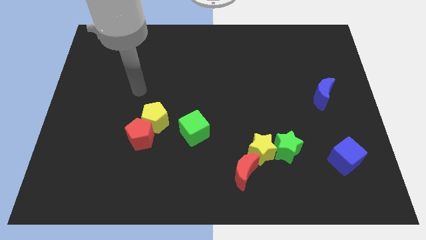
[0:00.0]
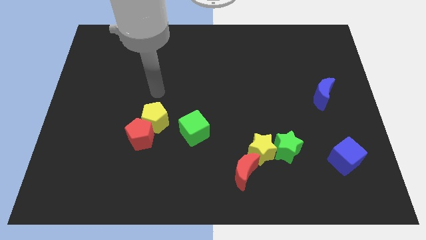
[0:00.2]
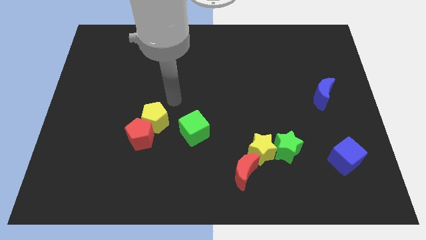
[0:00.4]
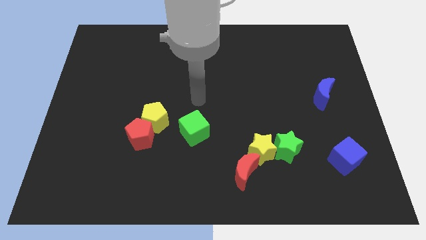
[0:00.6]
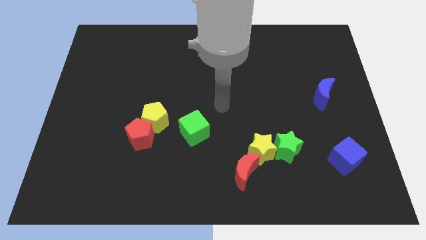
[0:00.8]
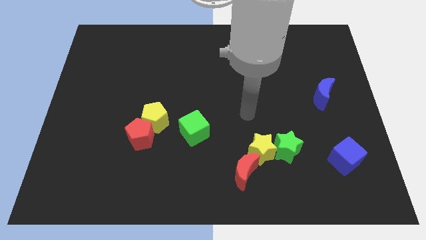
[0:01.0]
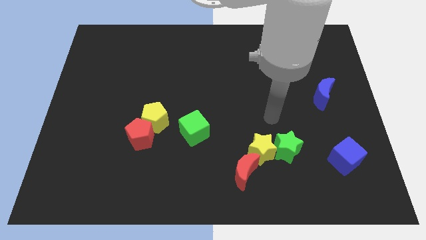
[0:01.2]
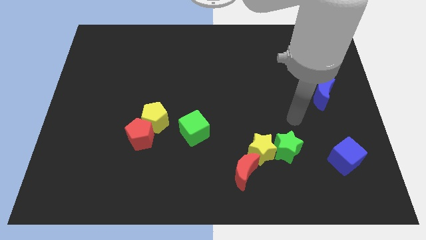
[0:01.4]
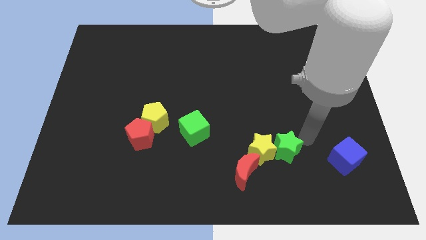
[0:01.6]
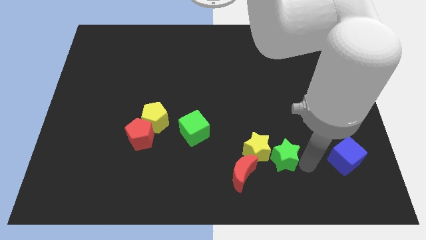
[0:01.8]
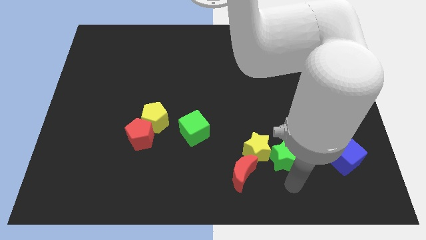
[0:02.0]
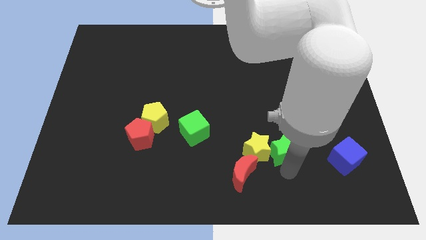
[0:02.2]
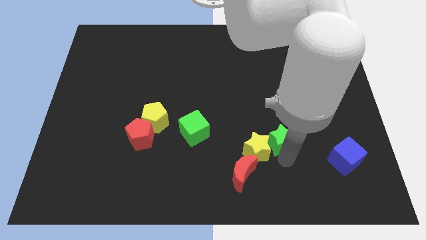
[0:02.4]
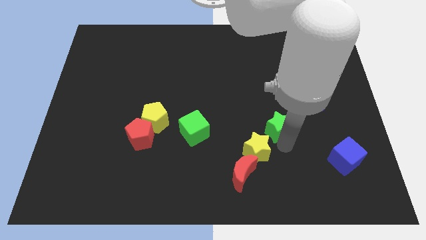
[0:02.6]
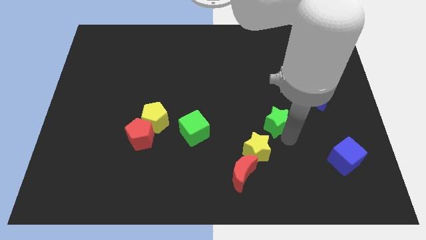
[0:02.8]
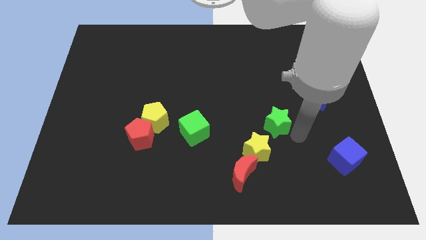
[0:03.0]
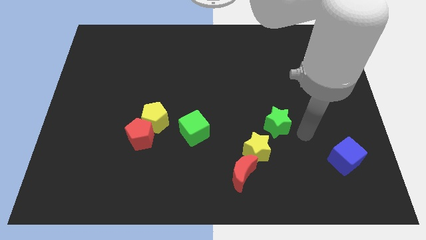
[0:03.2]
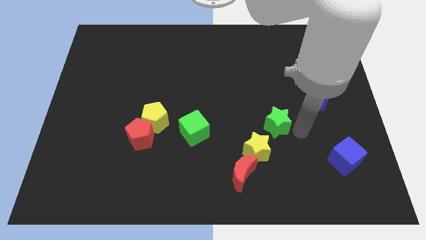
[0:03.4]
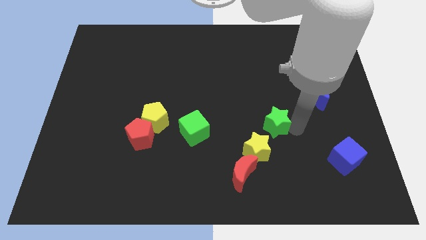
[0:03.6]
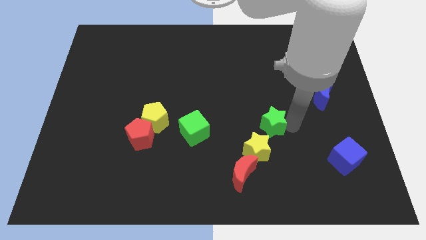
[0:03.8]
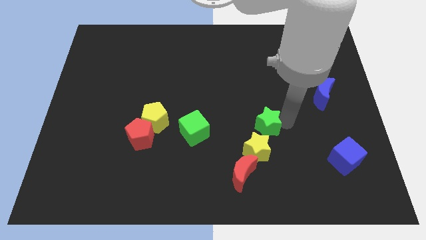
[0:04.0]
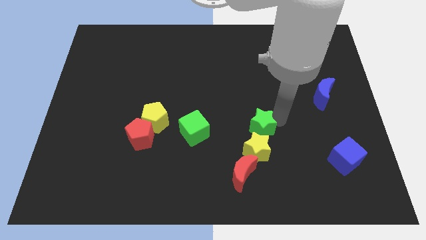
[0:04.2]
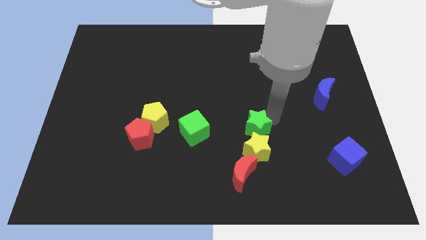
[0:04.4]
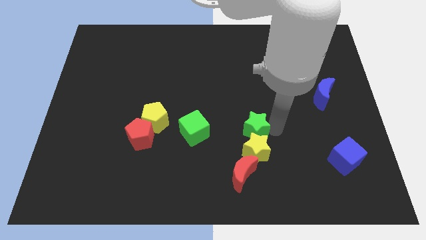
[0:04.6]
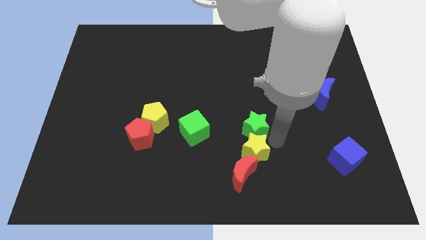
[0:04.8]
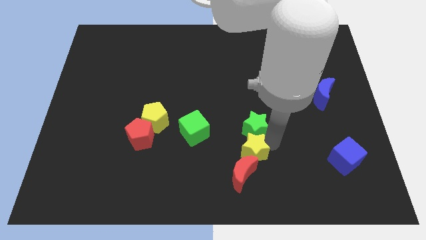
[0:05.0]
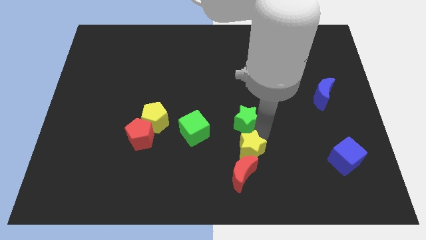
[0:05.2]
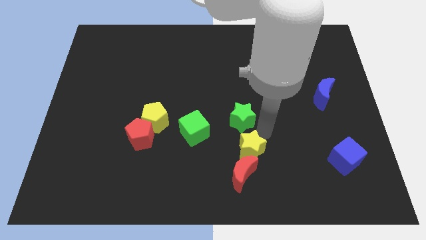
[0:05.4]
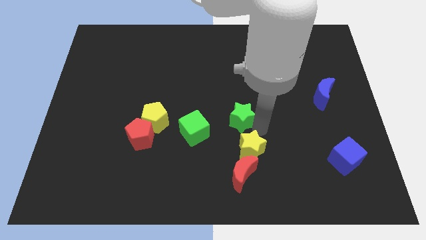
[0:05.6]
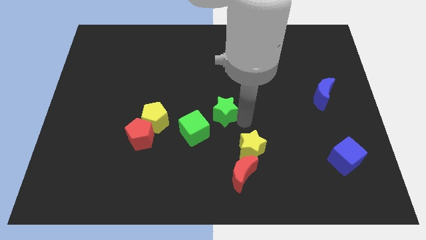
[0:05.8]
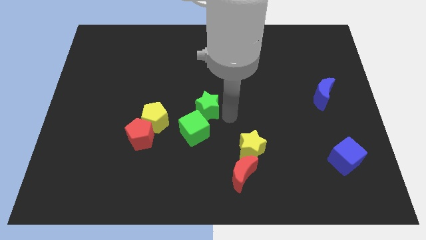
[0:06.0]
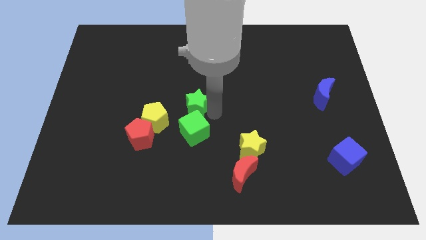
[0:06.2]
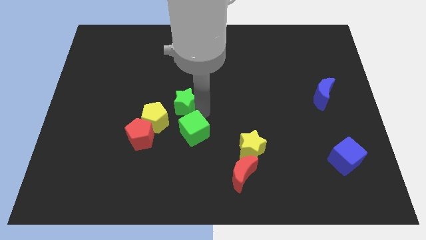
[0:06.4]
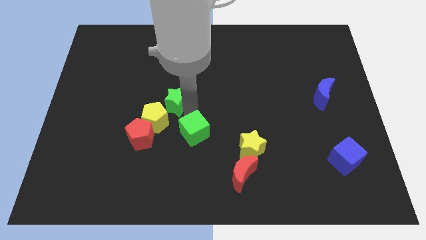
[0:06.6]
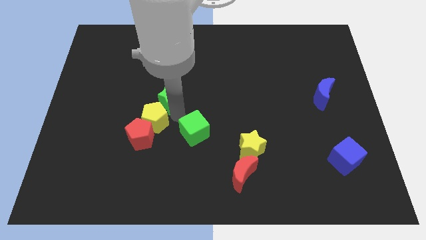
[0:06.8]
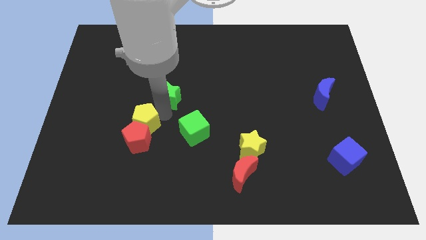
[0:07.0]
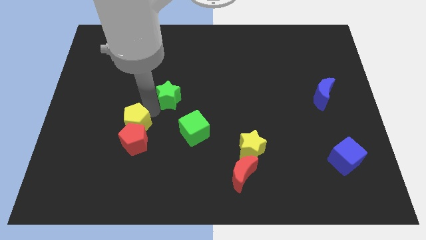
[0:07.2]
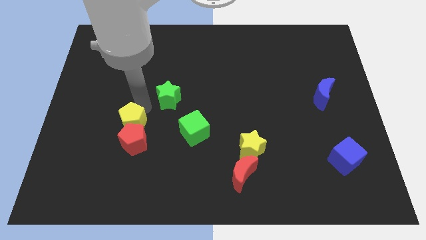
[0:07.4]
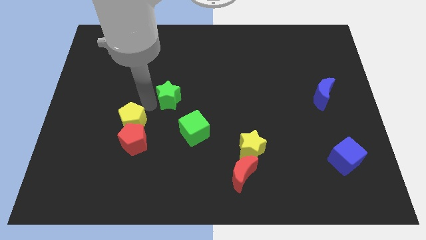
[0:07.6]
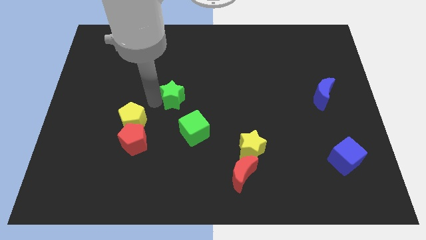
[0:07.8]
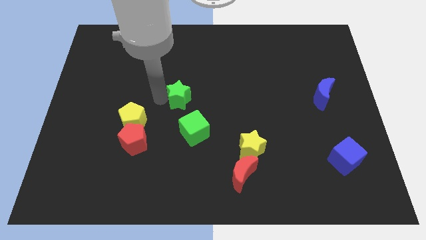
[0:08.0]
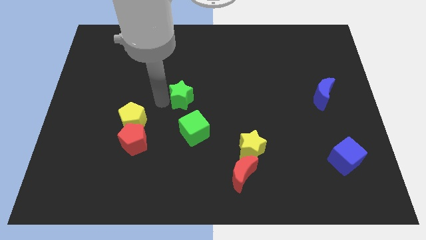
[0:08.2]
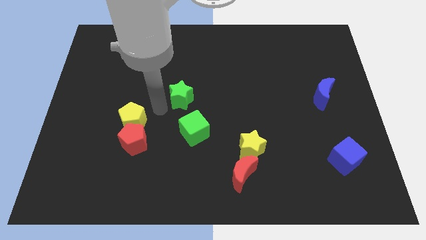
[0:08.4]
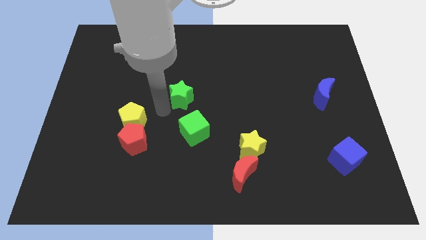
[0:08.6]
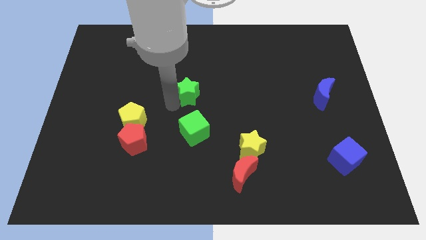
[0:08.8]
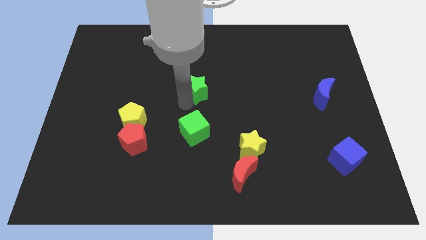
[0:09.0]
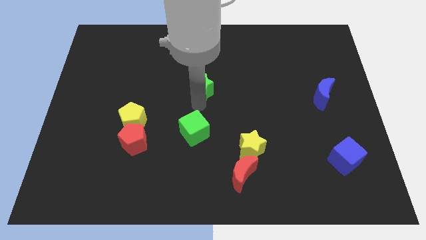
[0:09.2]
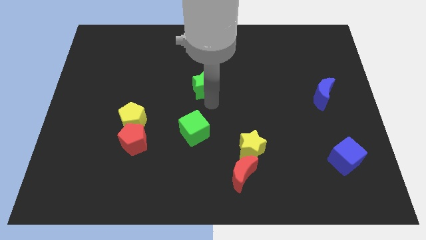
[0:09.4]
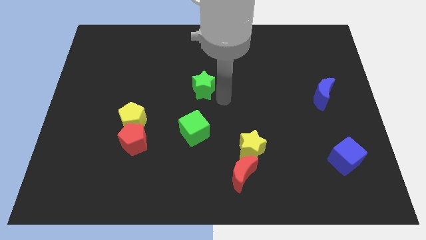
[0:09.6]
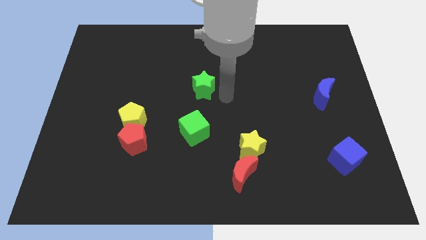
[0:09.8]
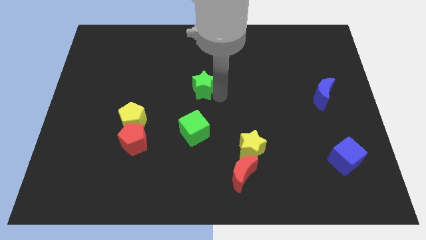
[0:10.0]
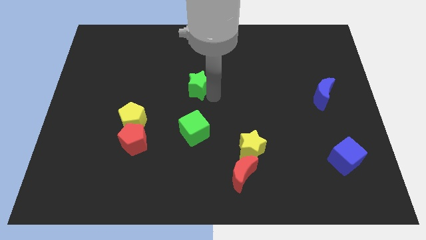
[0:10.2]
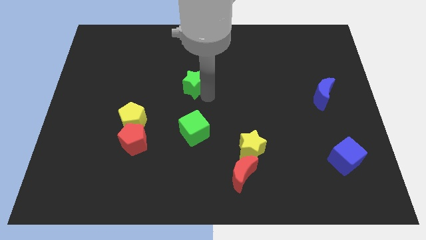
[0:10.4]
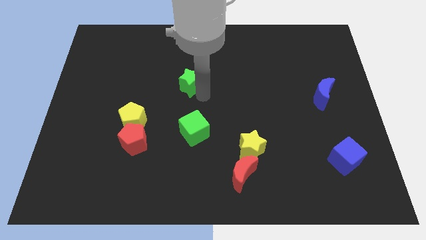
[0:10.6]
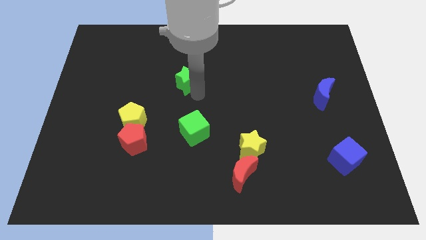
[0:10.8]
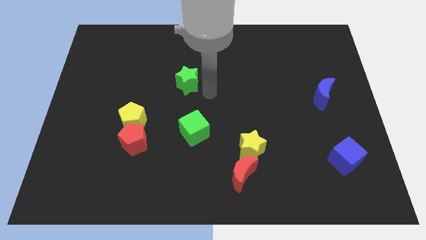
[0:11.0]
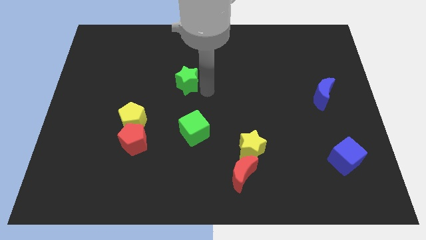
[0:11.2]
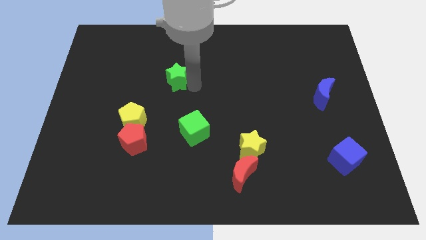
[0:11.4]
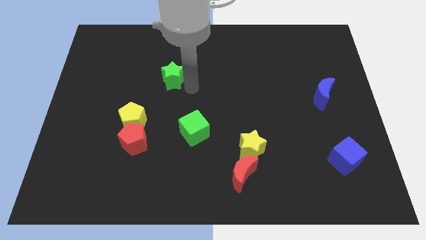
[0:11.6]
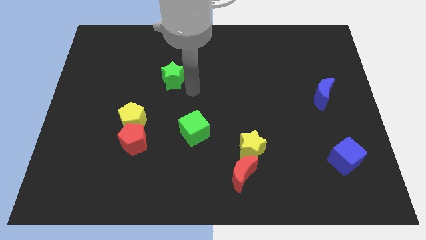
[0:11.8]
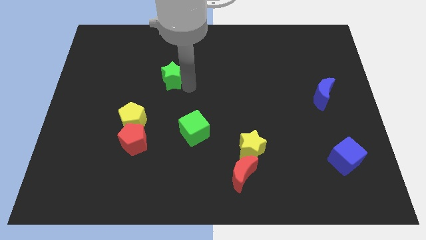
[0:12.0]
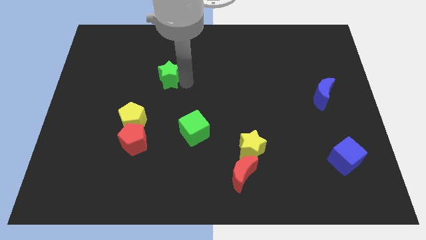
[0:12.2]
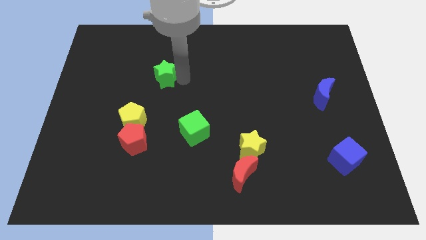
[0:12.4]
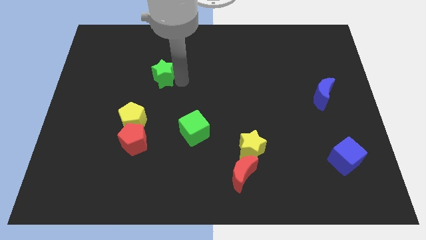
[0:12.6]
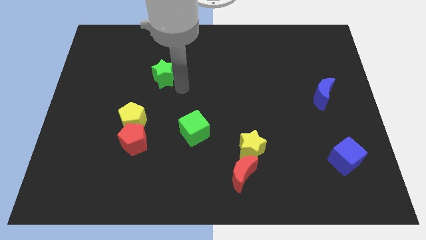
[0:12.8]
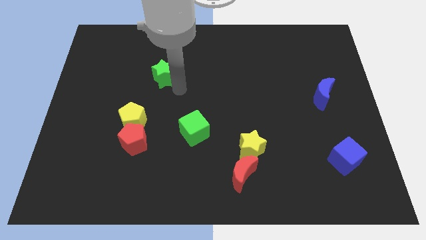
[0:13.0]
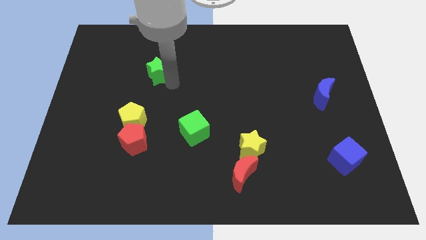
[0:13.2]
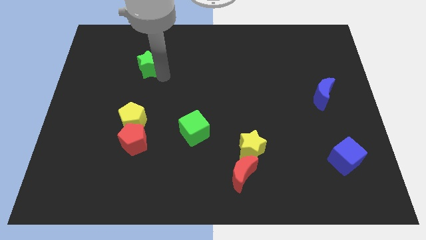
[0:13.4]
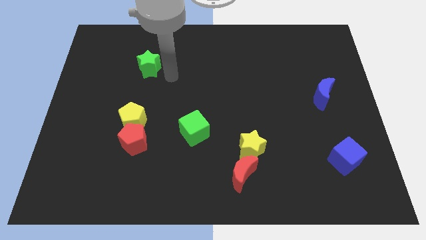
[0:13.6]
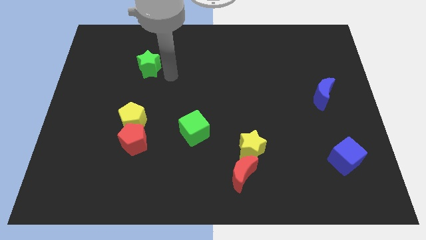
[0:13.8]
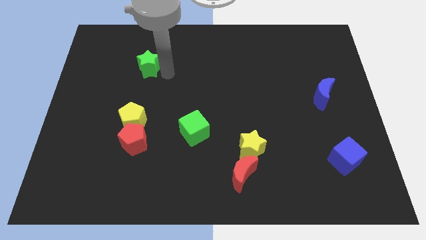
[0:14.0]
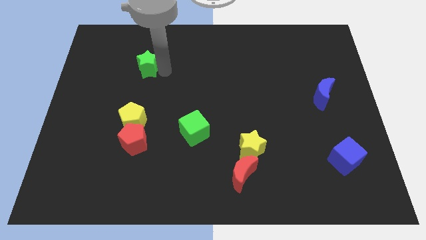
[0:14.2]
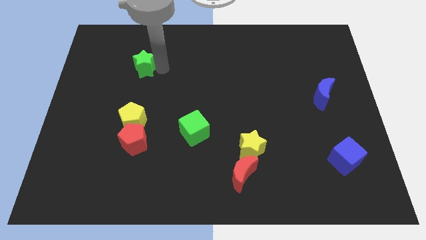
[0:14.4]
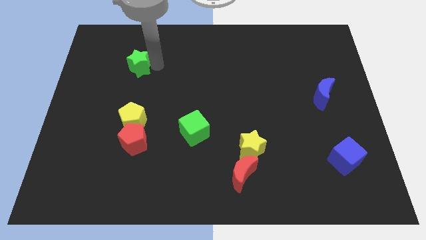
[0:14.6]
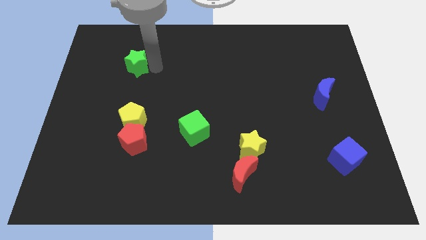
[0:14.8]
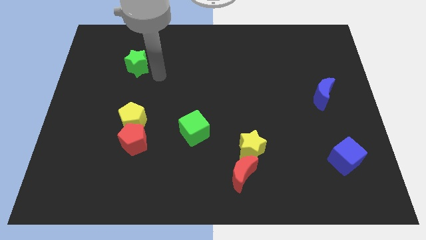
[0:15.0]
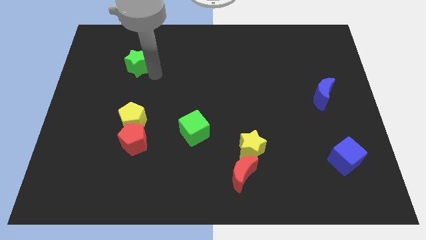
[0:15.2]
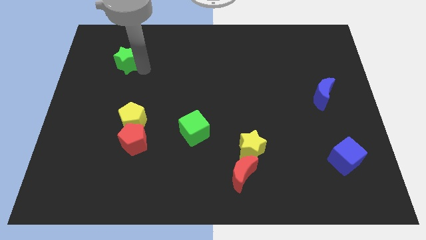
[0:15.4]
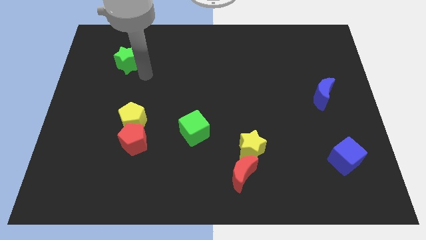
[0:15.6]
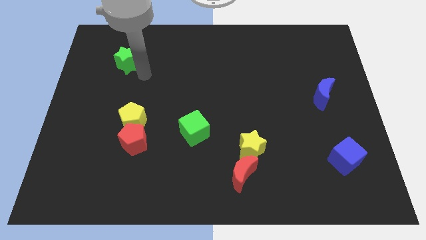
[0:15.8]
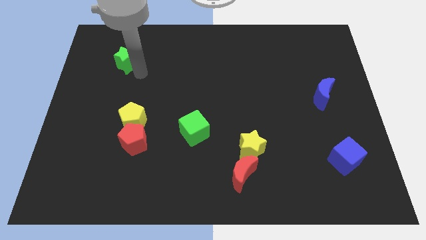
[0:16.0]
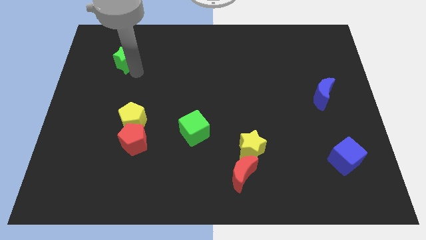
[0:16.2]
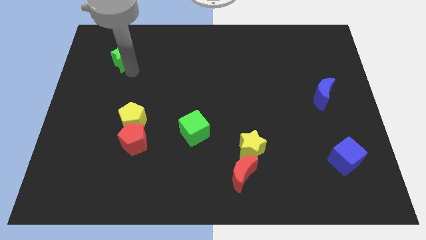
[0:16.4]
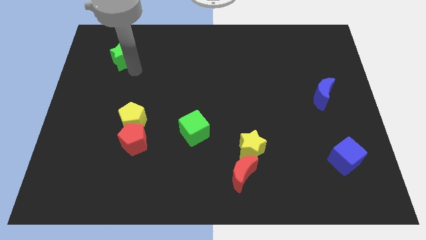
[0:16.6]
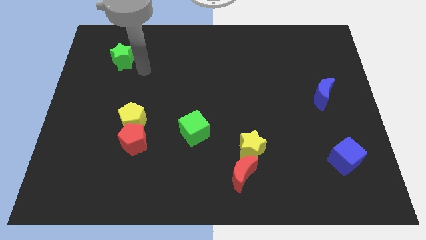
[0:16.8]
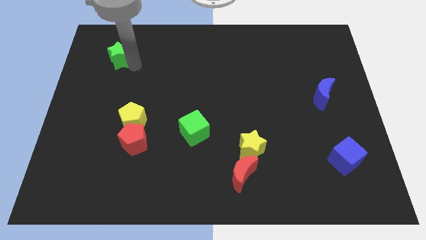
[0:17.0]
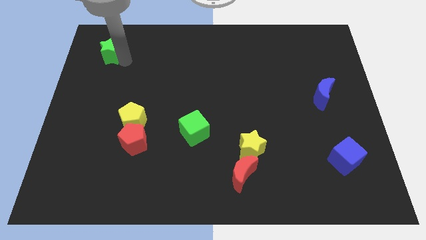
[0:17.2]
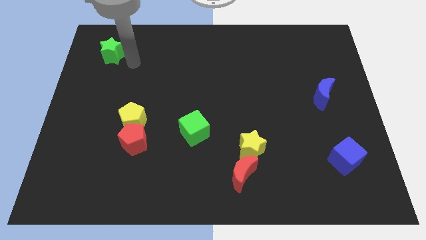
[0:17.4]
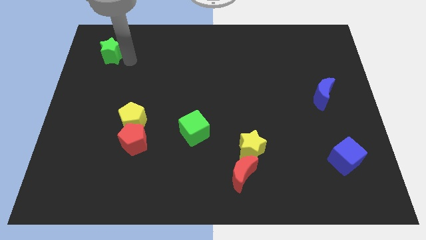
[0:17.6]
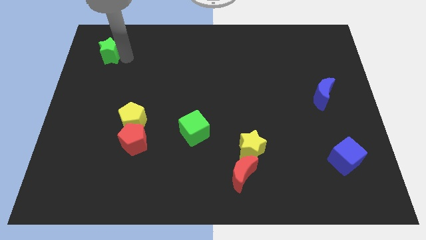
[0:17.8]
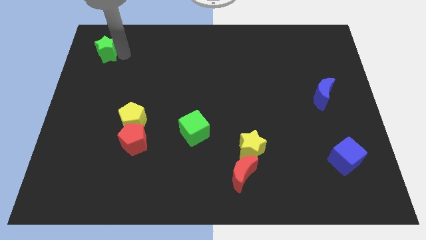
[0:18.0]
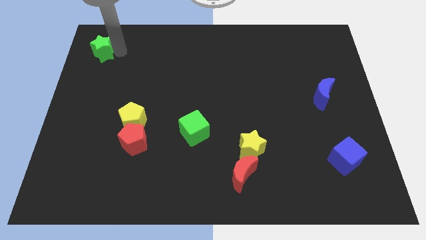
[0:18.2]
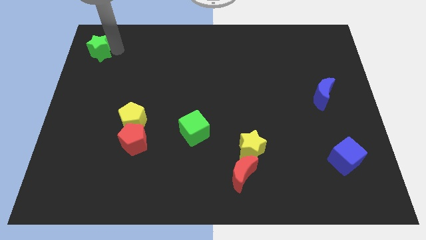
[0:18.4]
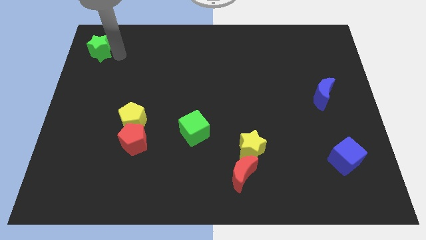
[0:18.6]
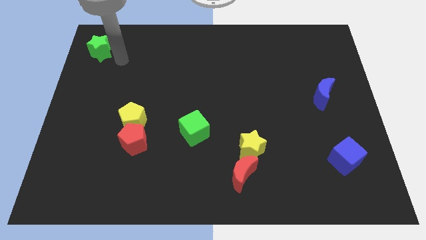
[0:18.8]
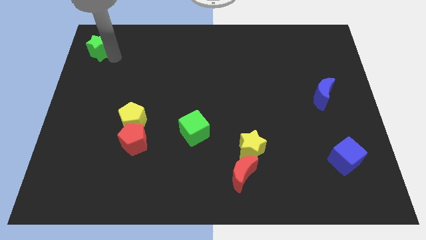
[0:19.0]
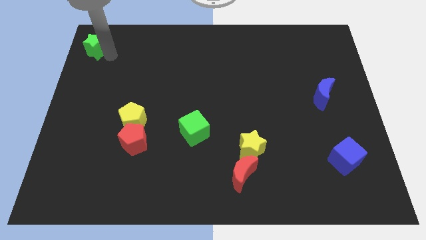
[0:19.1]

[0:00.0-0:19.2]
put the green star to the top left corner
